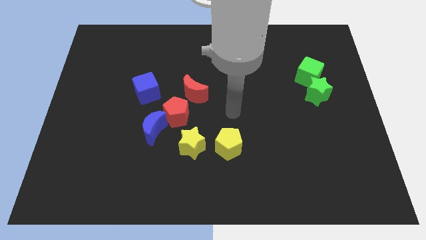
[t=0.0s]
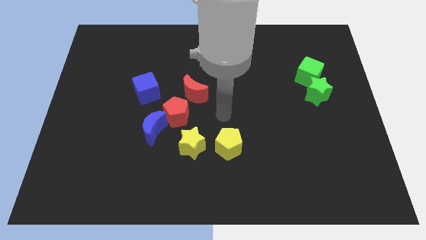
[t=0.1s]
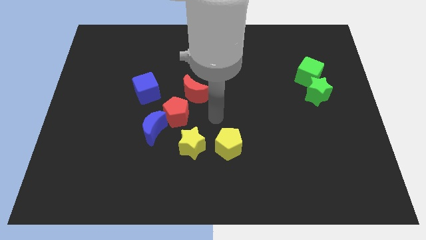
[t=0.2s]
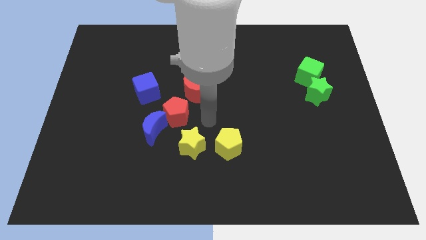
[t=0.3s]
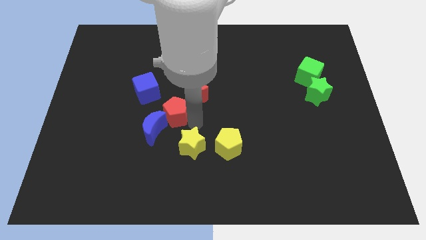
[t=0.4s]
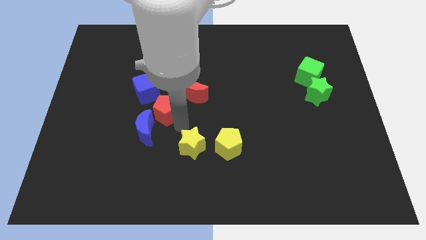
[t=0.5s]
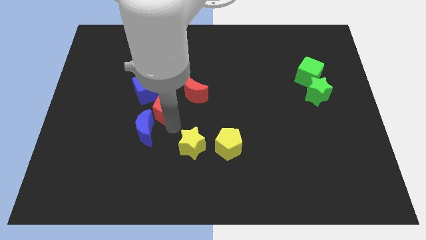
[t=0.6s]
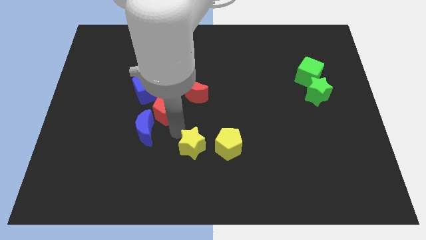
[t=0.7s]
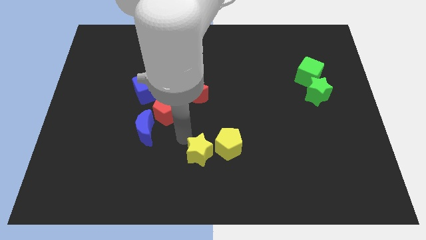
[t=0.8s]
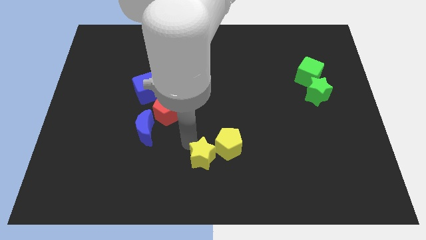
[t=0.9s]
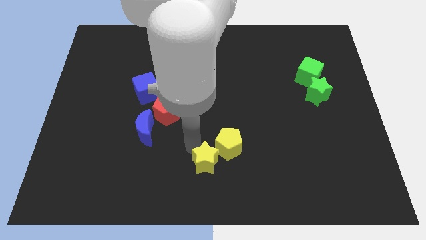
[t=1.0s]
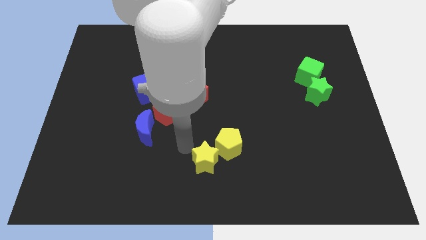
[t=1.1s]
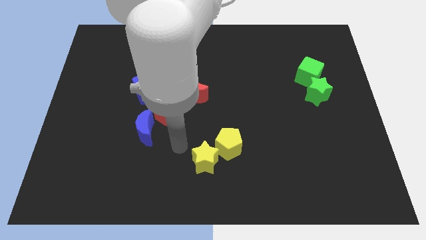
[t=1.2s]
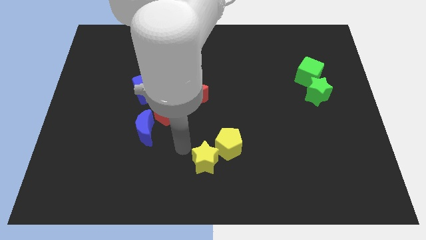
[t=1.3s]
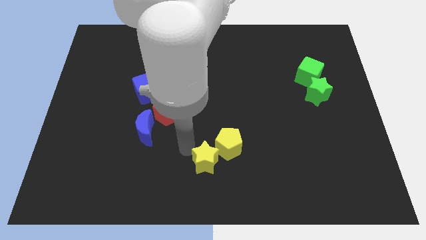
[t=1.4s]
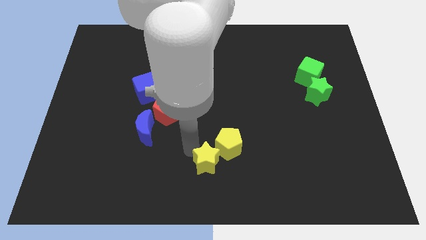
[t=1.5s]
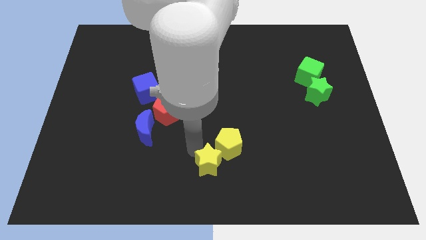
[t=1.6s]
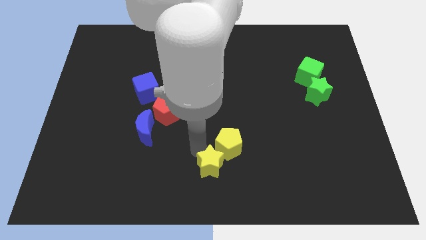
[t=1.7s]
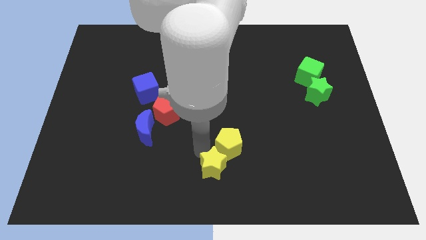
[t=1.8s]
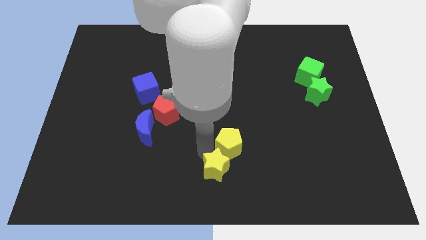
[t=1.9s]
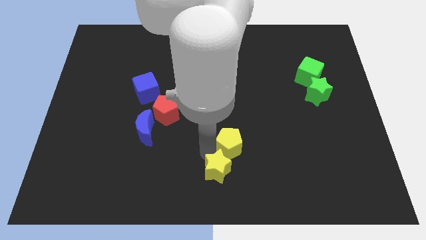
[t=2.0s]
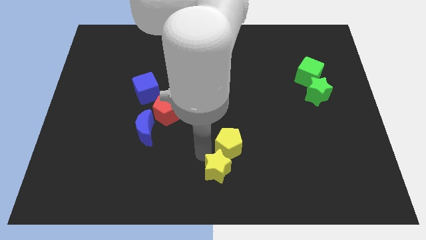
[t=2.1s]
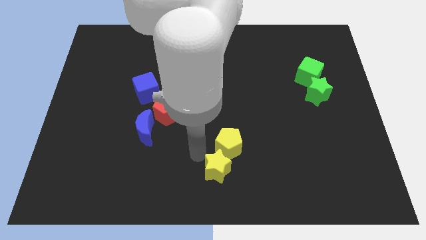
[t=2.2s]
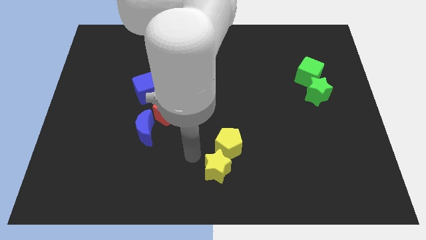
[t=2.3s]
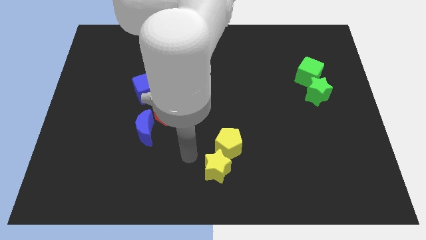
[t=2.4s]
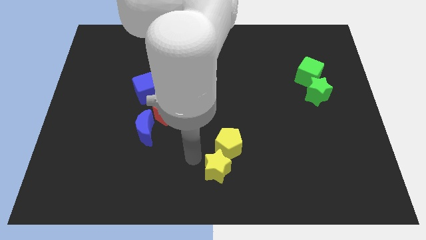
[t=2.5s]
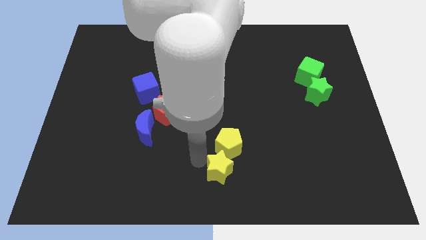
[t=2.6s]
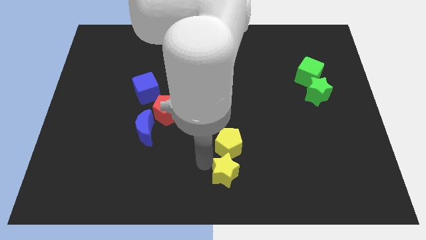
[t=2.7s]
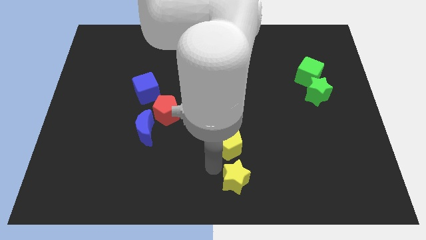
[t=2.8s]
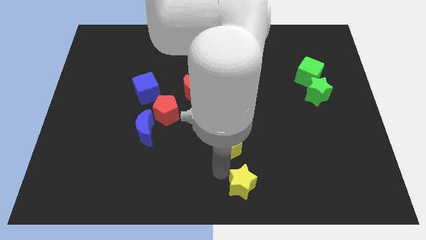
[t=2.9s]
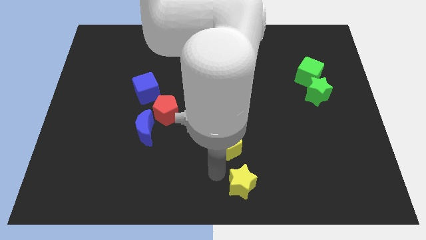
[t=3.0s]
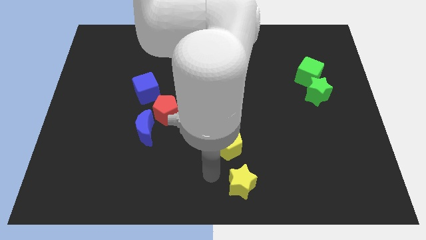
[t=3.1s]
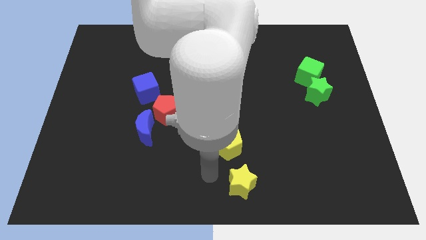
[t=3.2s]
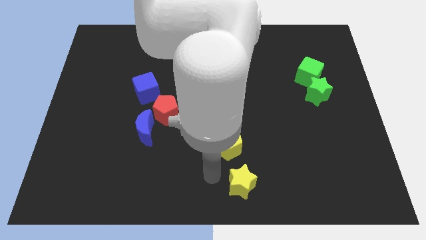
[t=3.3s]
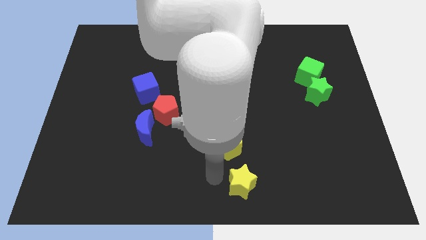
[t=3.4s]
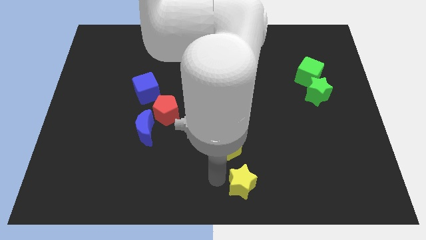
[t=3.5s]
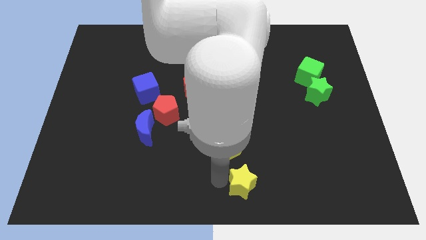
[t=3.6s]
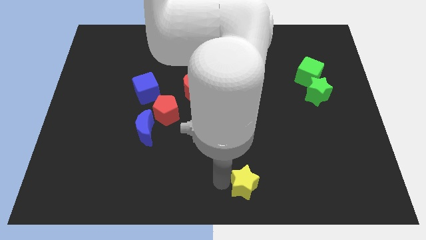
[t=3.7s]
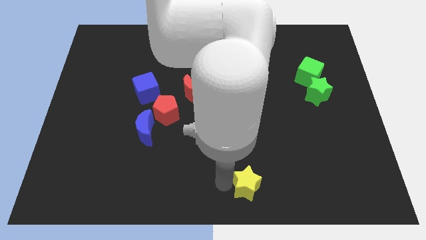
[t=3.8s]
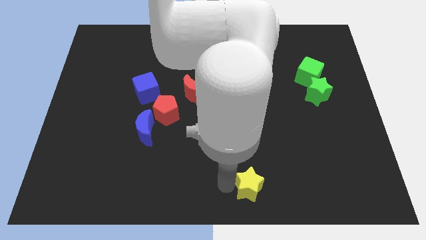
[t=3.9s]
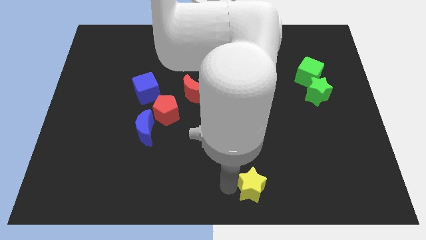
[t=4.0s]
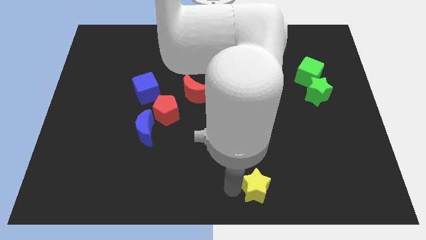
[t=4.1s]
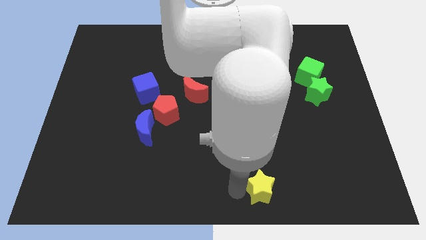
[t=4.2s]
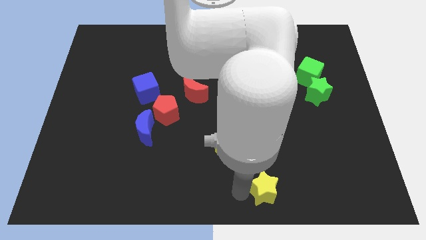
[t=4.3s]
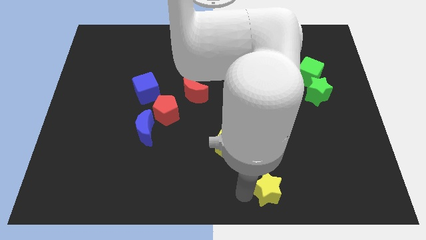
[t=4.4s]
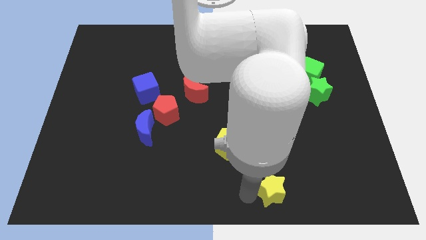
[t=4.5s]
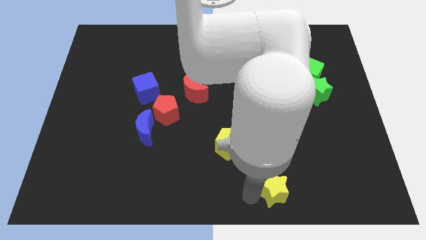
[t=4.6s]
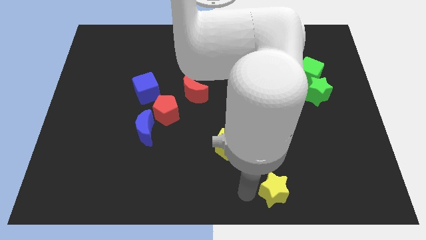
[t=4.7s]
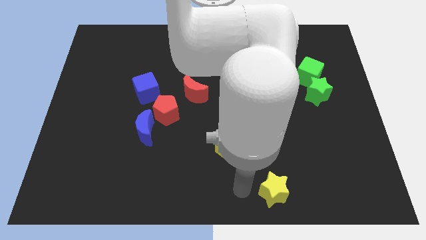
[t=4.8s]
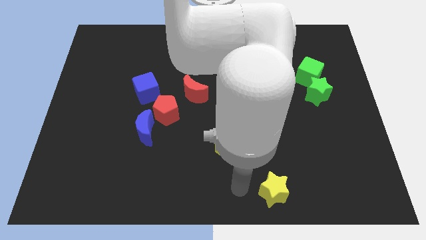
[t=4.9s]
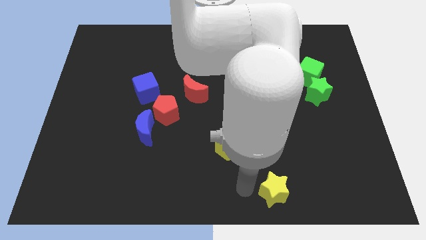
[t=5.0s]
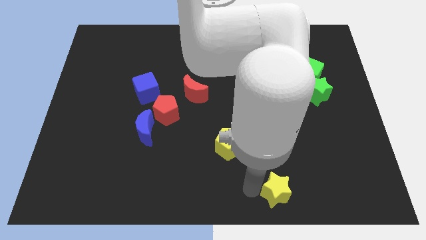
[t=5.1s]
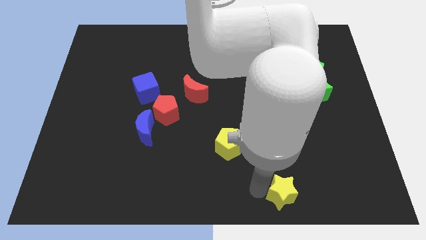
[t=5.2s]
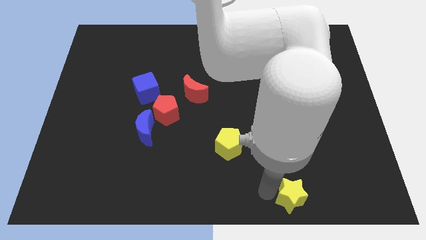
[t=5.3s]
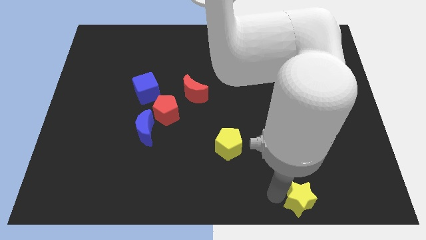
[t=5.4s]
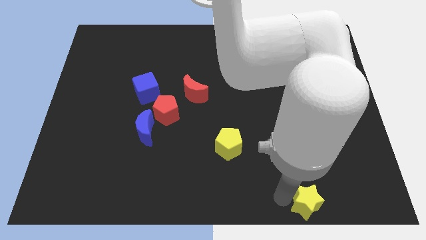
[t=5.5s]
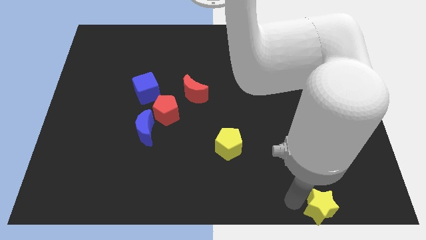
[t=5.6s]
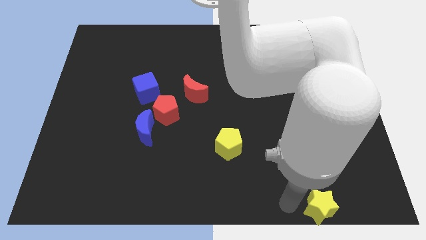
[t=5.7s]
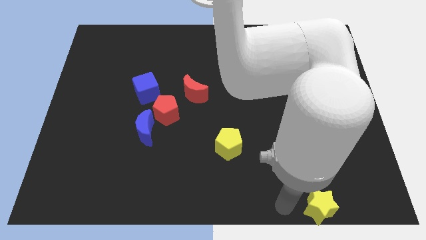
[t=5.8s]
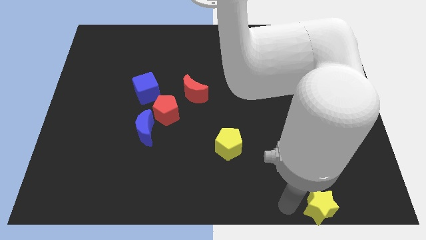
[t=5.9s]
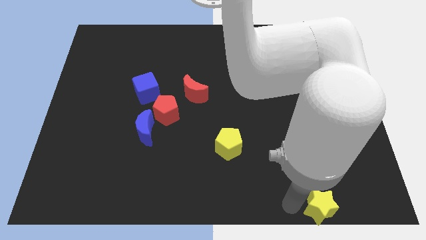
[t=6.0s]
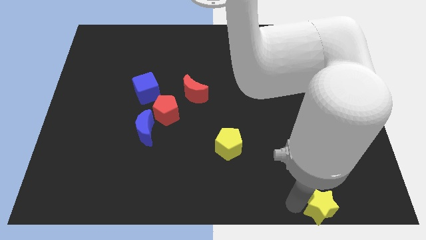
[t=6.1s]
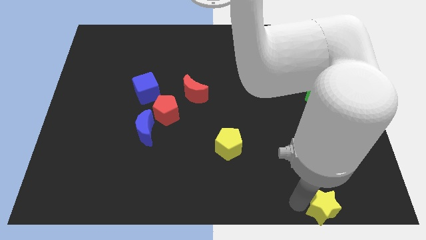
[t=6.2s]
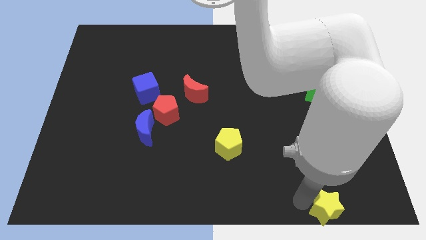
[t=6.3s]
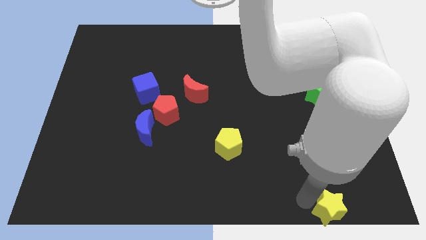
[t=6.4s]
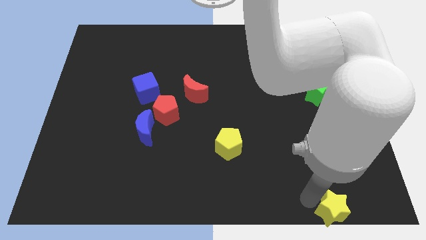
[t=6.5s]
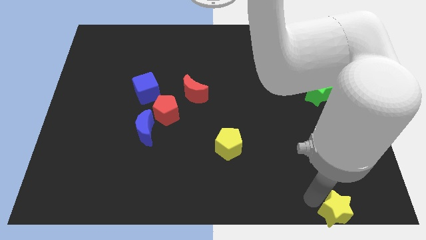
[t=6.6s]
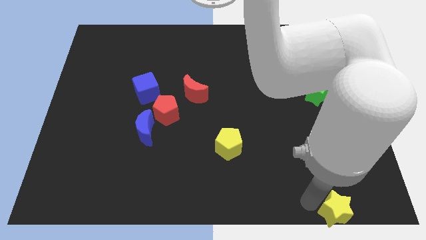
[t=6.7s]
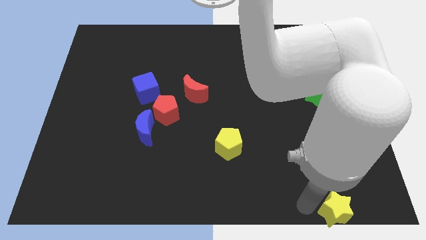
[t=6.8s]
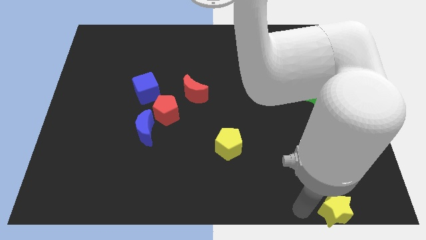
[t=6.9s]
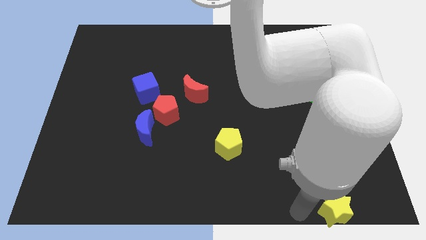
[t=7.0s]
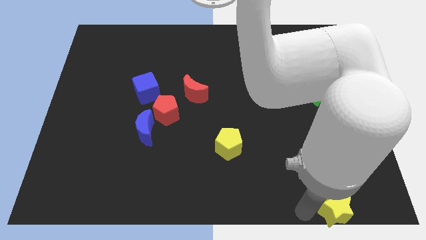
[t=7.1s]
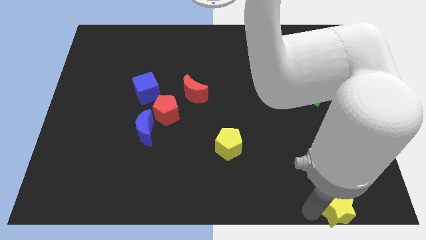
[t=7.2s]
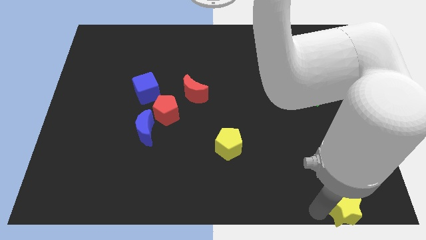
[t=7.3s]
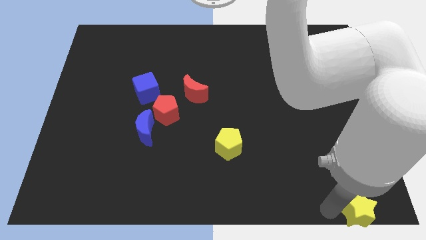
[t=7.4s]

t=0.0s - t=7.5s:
push the yellow star to the lower right corner
